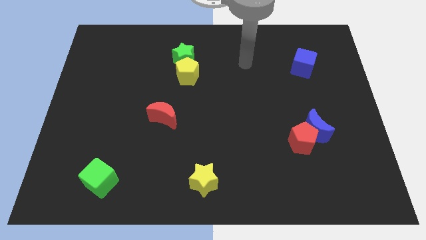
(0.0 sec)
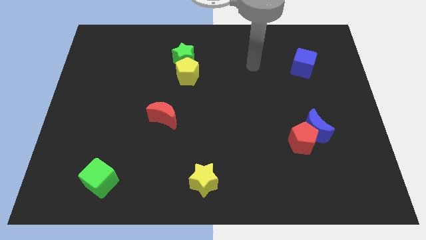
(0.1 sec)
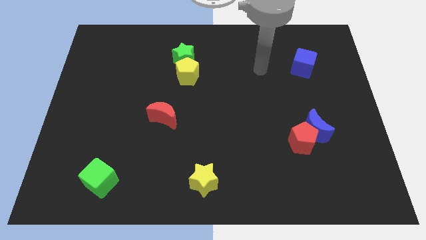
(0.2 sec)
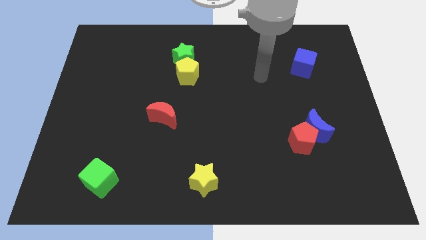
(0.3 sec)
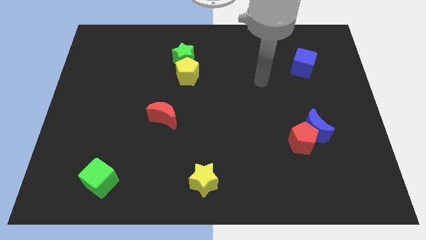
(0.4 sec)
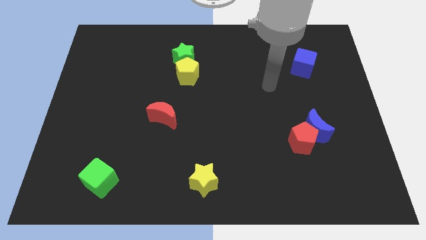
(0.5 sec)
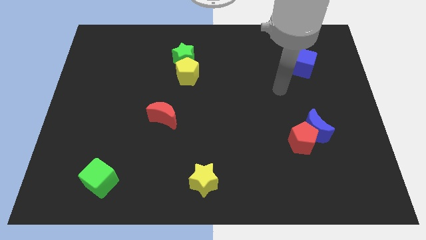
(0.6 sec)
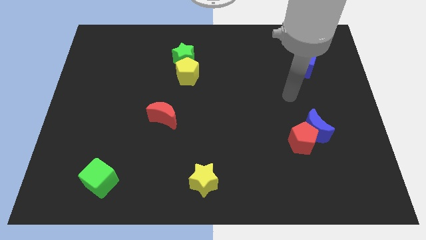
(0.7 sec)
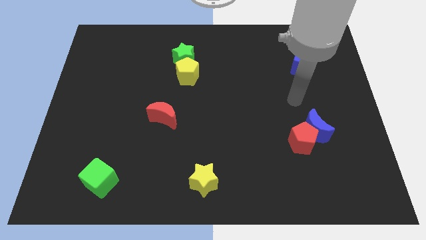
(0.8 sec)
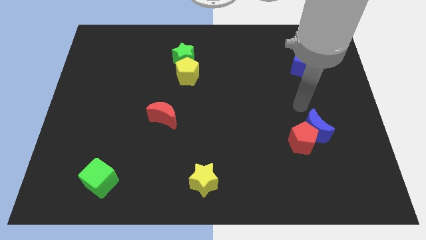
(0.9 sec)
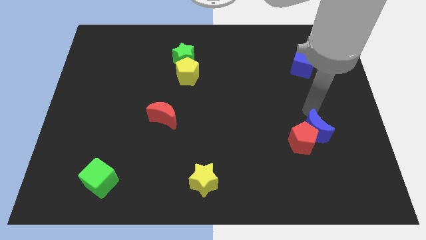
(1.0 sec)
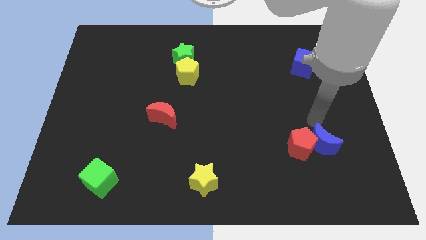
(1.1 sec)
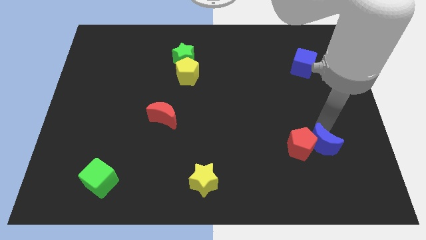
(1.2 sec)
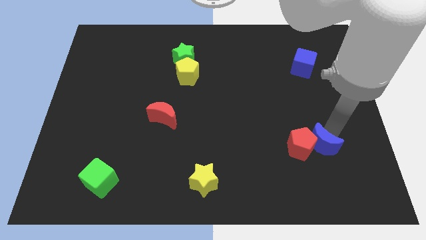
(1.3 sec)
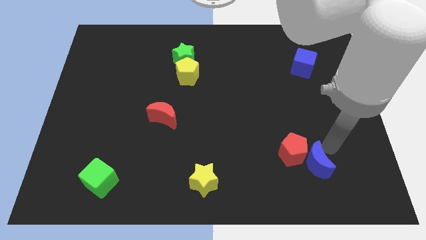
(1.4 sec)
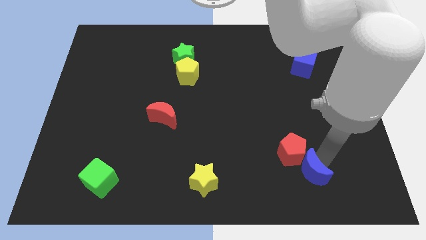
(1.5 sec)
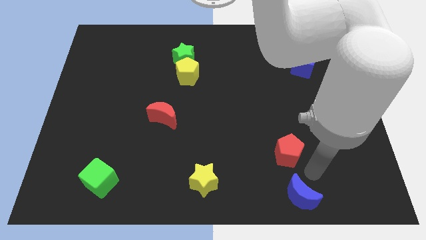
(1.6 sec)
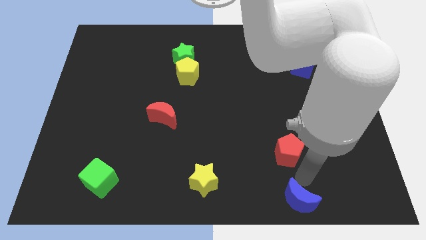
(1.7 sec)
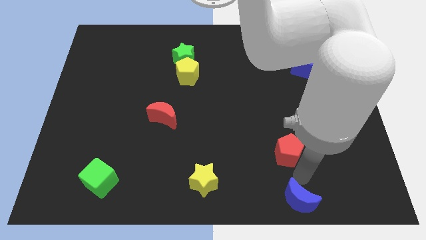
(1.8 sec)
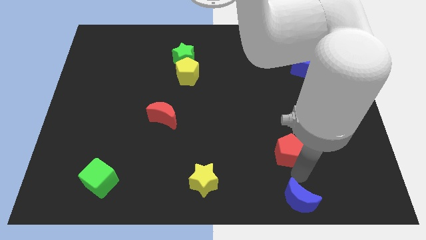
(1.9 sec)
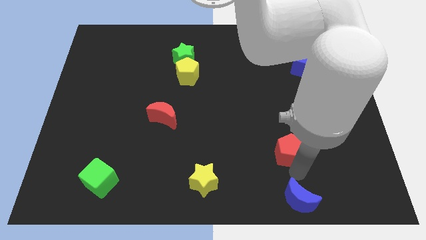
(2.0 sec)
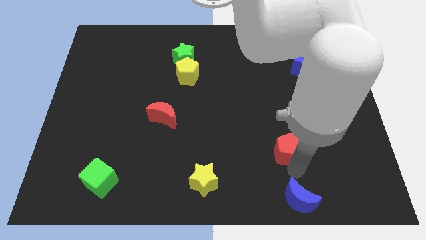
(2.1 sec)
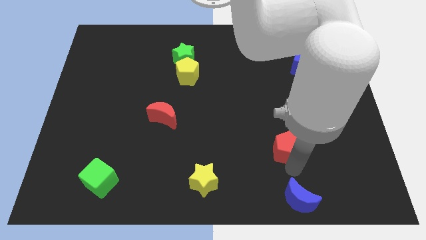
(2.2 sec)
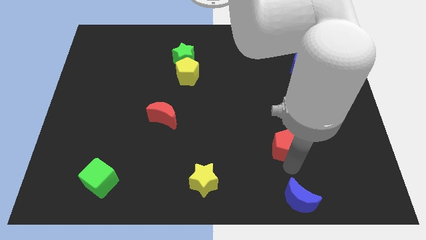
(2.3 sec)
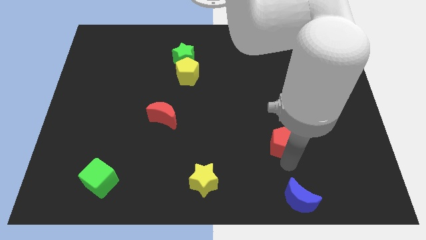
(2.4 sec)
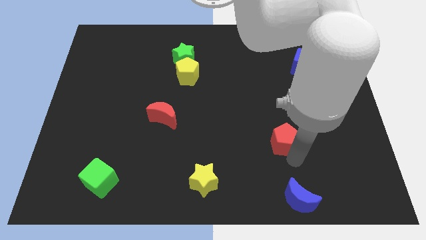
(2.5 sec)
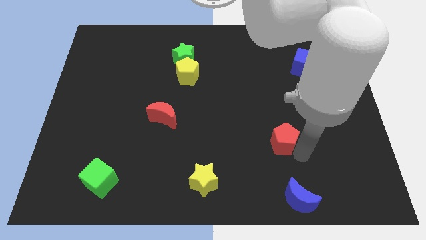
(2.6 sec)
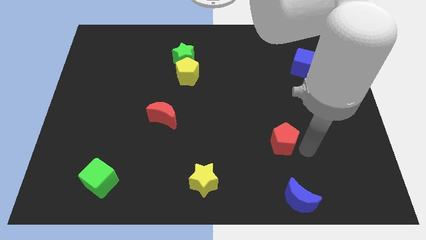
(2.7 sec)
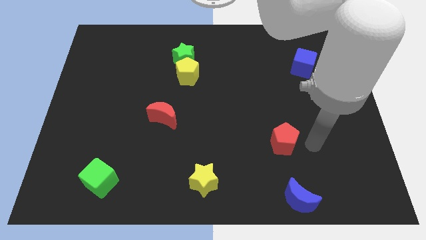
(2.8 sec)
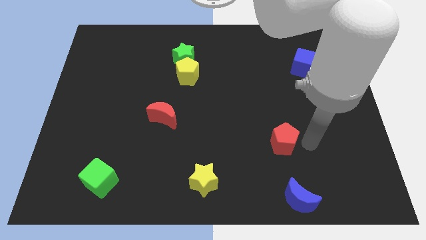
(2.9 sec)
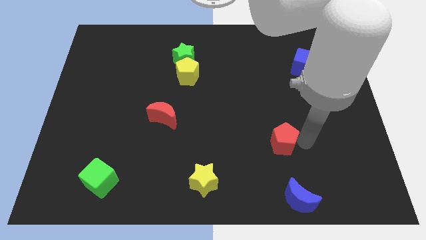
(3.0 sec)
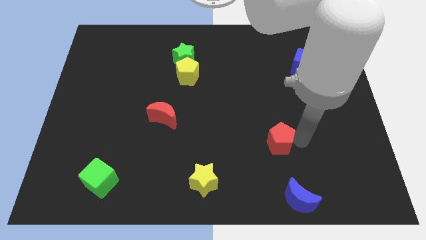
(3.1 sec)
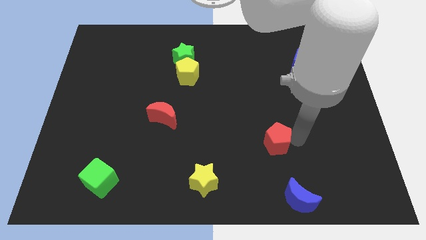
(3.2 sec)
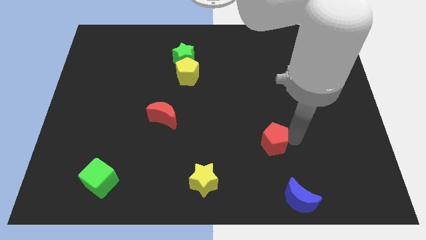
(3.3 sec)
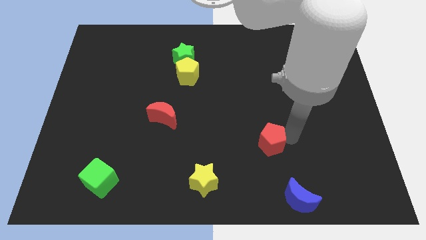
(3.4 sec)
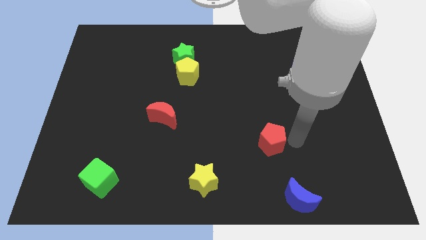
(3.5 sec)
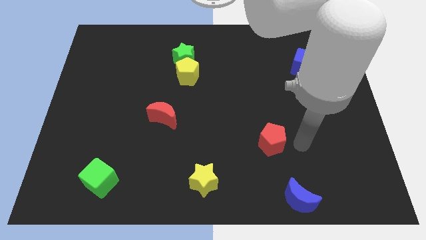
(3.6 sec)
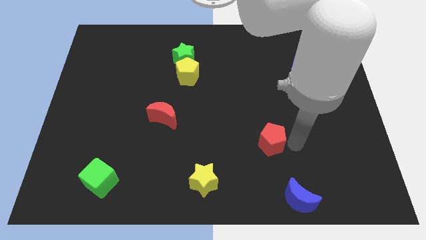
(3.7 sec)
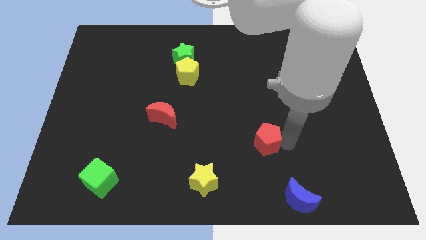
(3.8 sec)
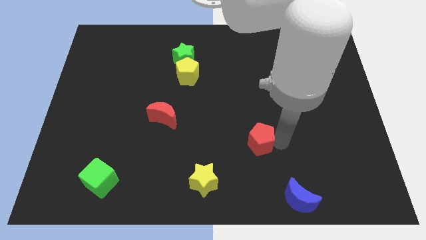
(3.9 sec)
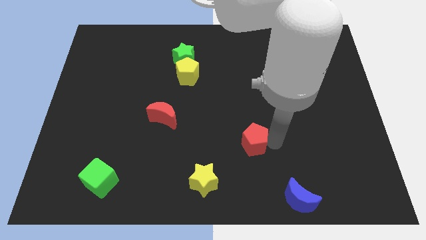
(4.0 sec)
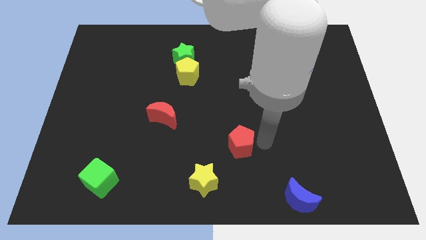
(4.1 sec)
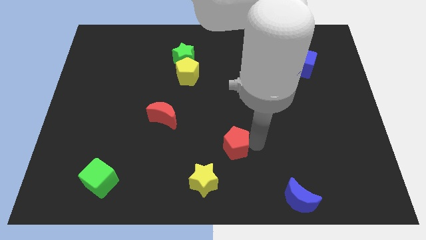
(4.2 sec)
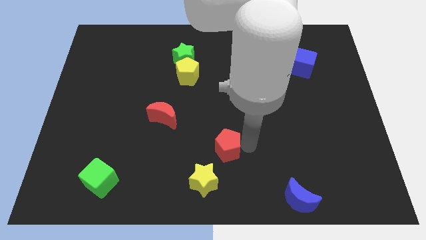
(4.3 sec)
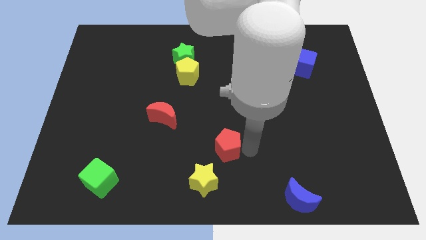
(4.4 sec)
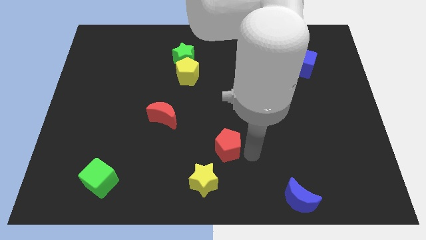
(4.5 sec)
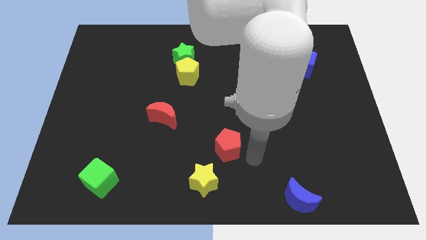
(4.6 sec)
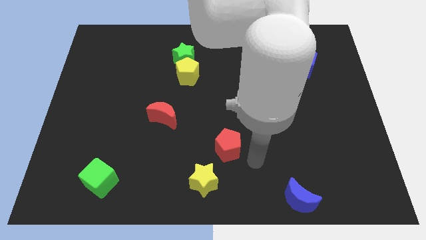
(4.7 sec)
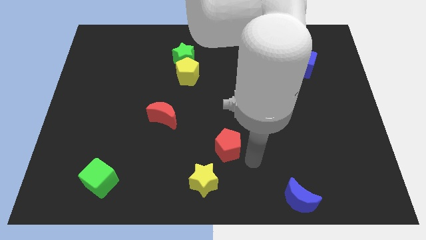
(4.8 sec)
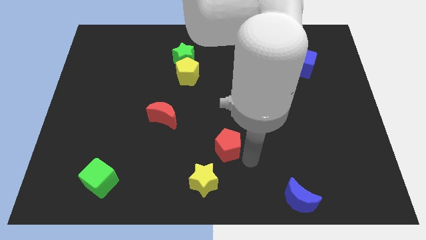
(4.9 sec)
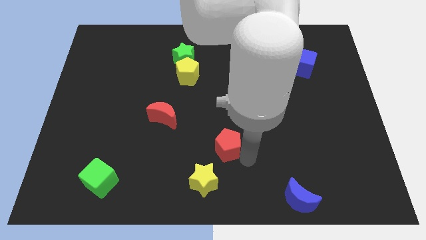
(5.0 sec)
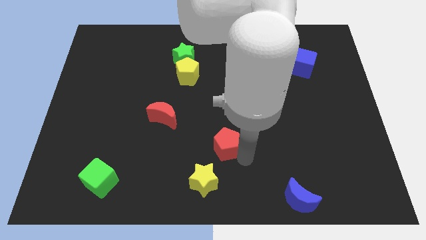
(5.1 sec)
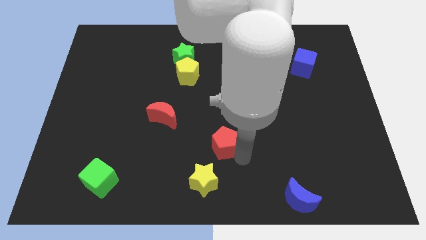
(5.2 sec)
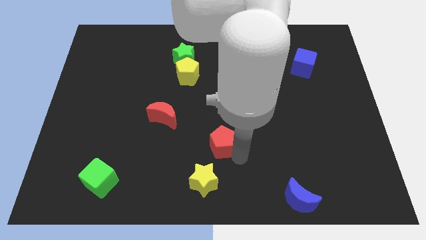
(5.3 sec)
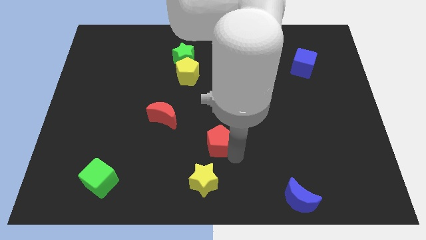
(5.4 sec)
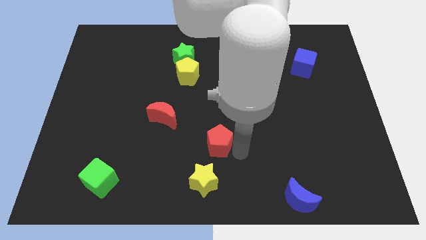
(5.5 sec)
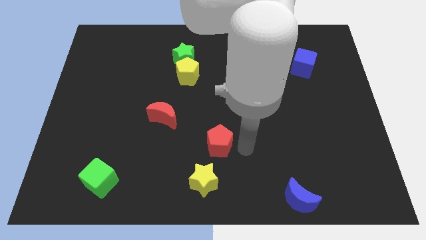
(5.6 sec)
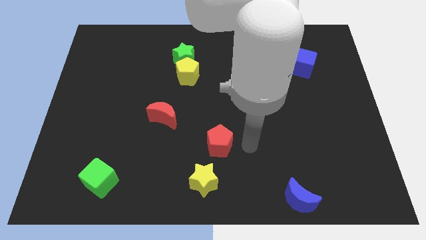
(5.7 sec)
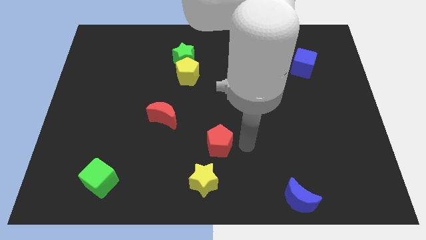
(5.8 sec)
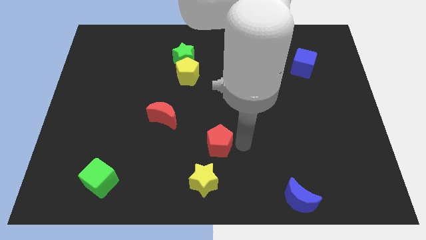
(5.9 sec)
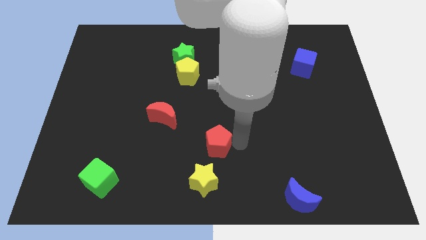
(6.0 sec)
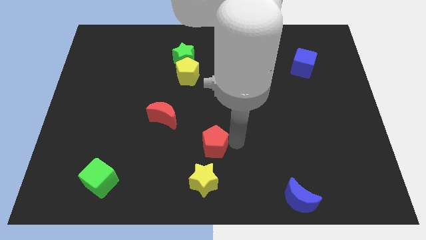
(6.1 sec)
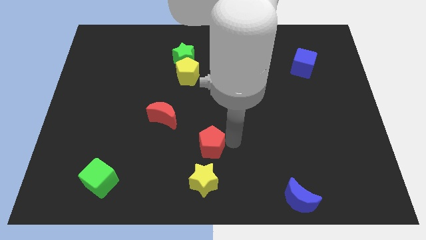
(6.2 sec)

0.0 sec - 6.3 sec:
move the red pentagon left

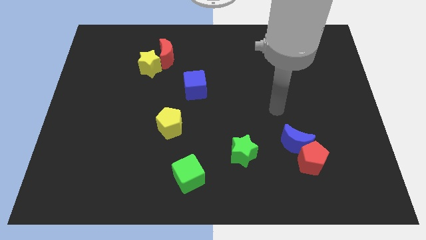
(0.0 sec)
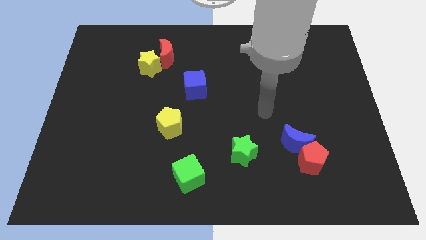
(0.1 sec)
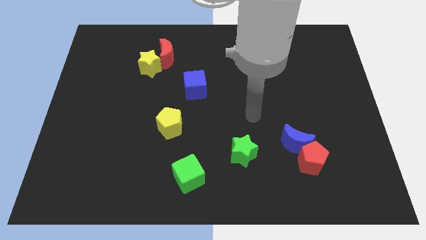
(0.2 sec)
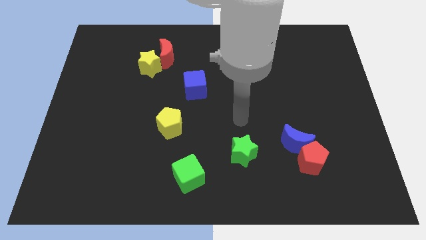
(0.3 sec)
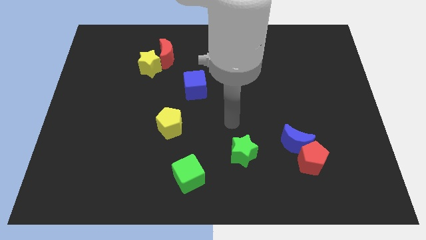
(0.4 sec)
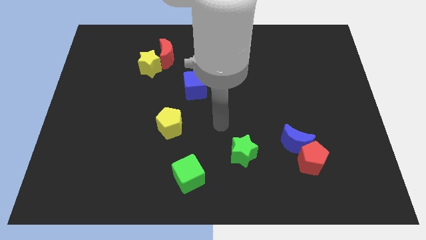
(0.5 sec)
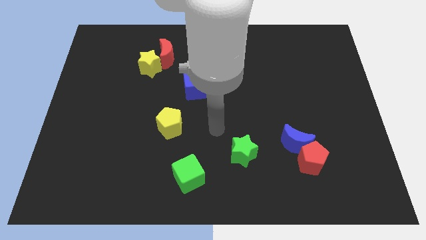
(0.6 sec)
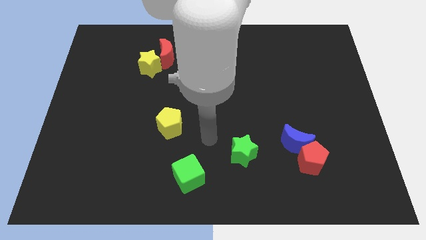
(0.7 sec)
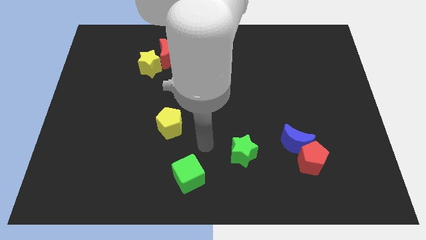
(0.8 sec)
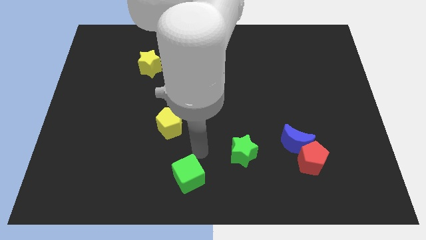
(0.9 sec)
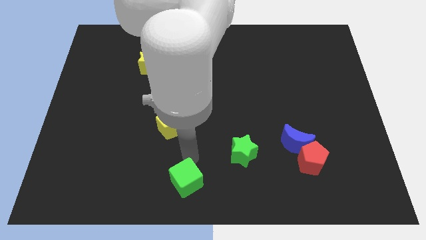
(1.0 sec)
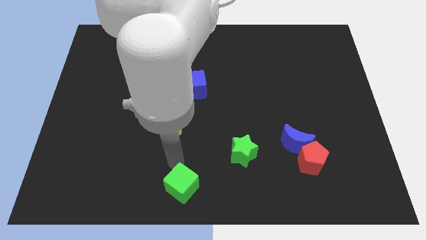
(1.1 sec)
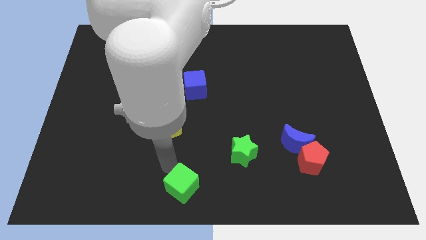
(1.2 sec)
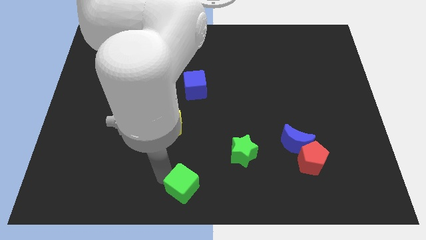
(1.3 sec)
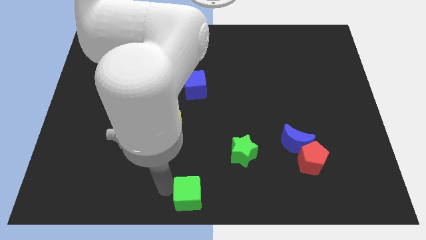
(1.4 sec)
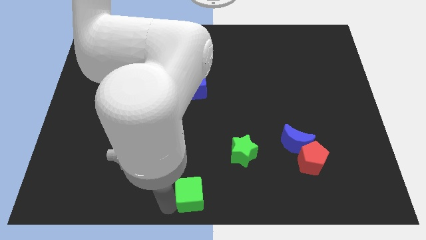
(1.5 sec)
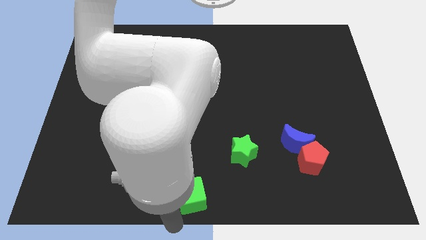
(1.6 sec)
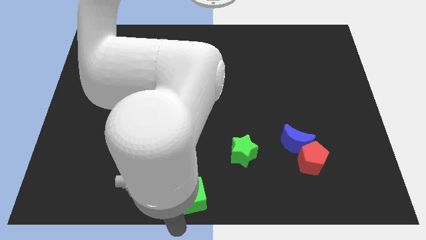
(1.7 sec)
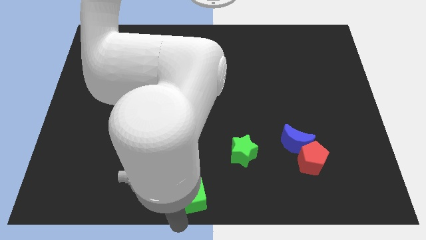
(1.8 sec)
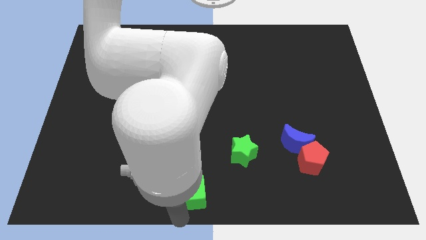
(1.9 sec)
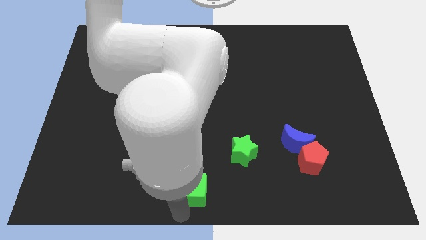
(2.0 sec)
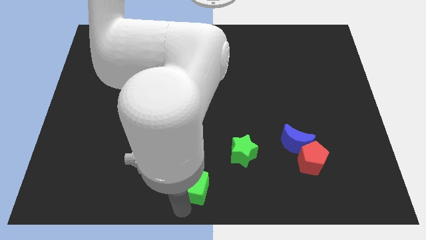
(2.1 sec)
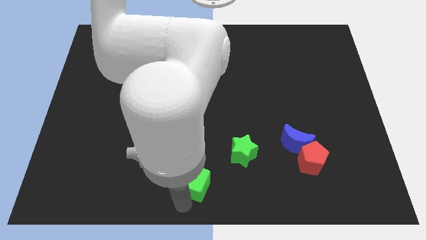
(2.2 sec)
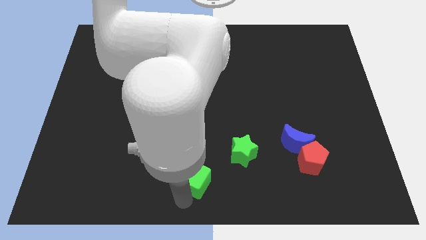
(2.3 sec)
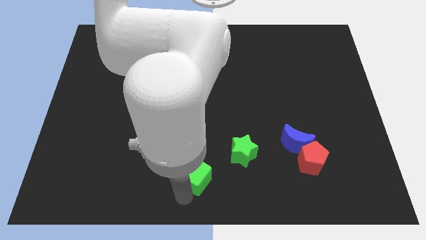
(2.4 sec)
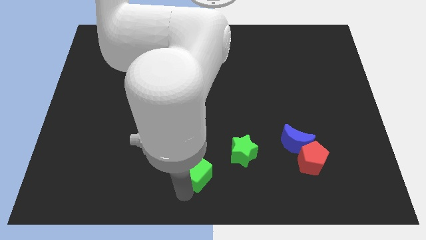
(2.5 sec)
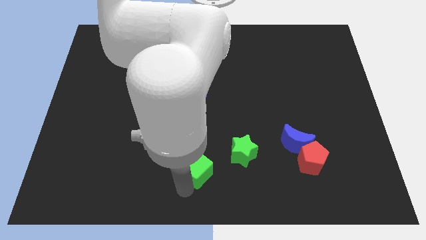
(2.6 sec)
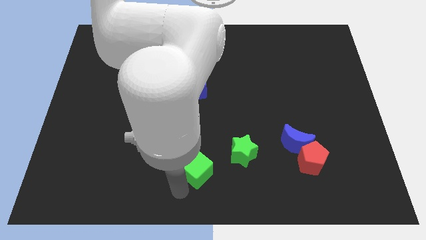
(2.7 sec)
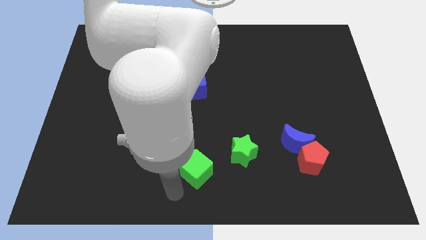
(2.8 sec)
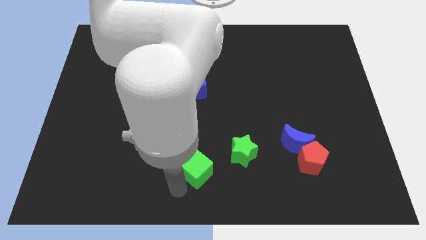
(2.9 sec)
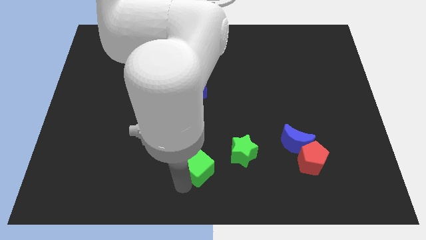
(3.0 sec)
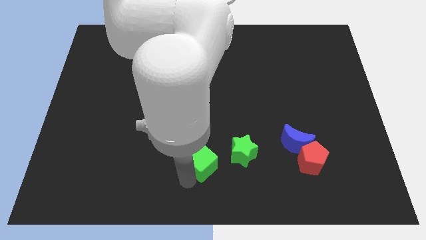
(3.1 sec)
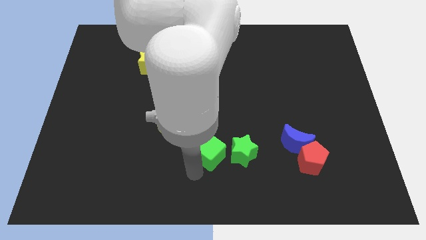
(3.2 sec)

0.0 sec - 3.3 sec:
slightly slide the green cube diagonally up and right
